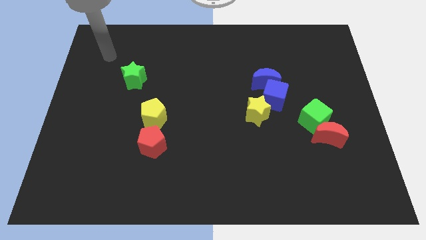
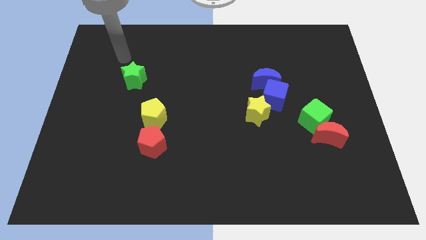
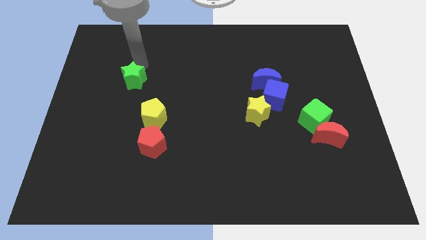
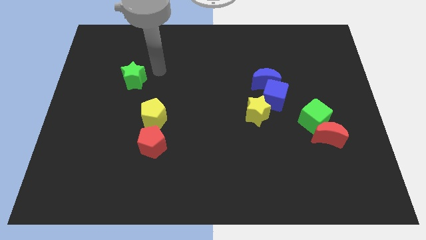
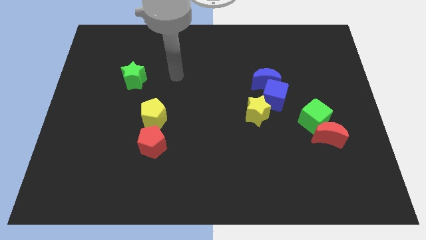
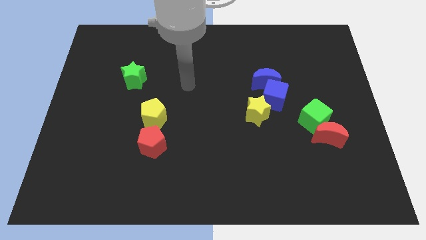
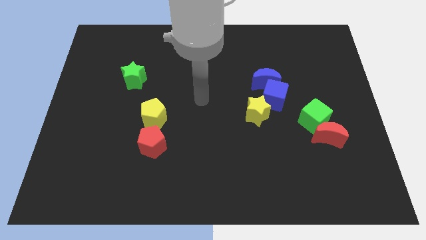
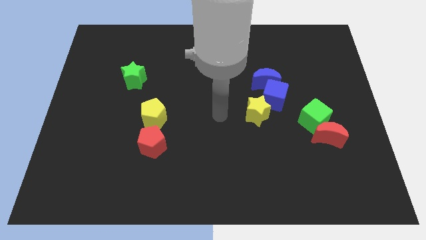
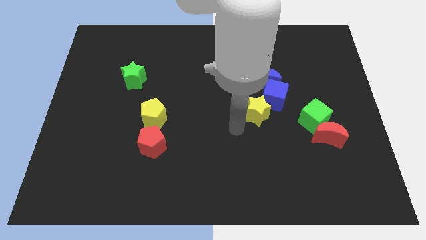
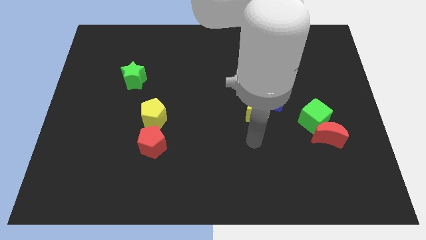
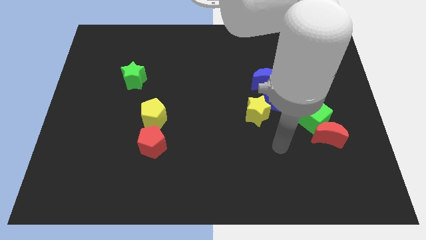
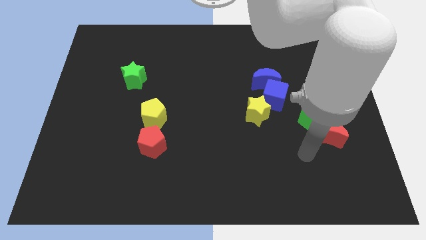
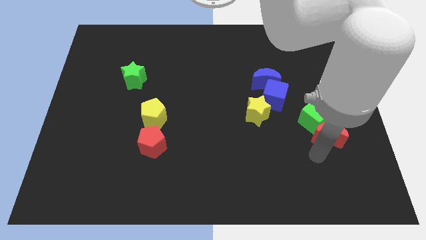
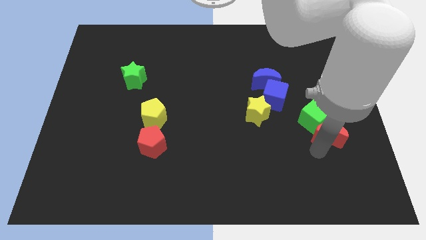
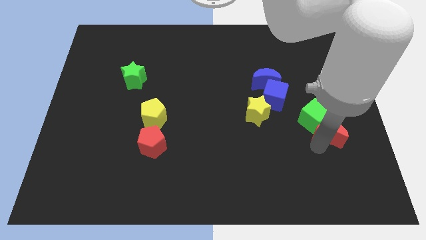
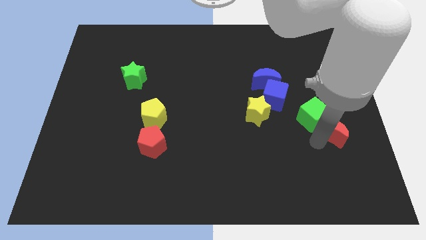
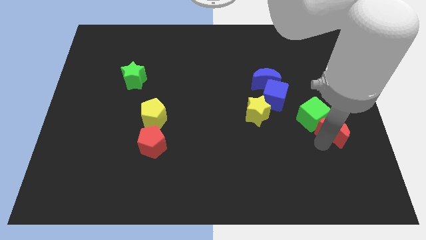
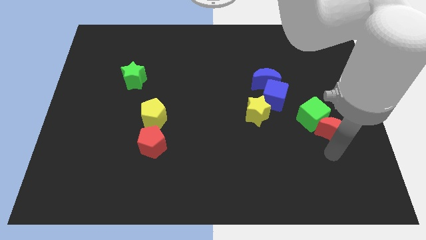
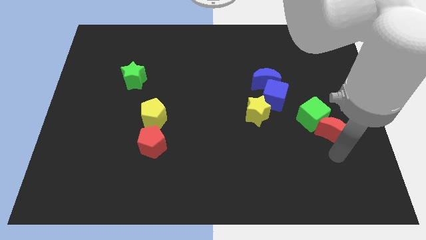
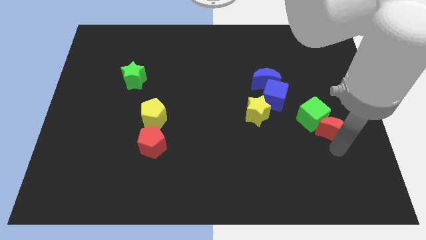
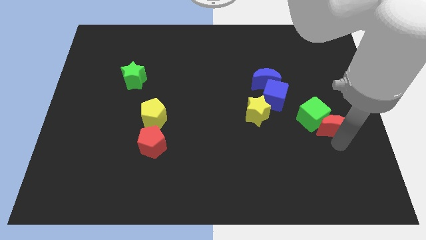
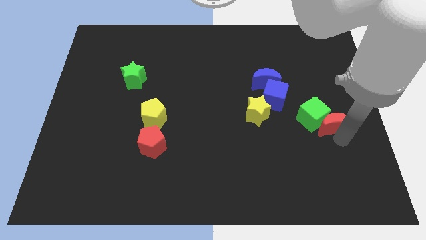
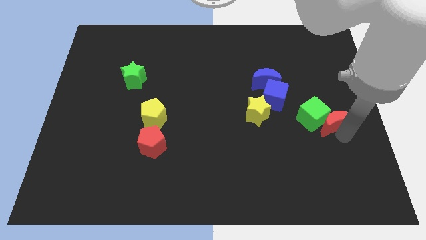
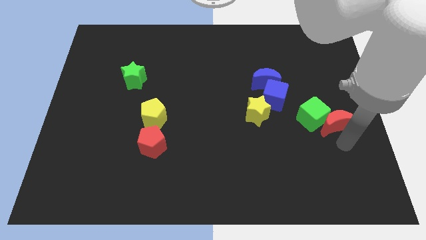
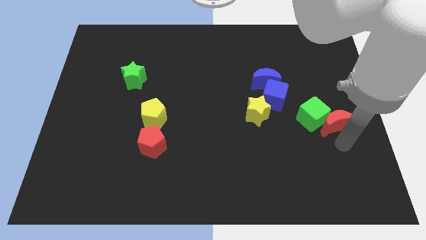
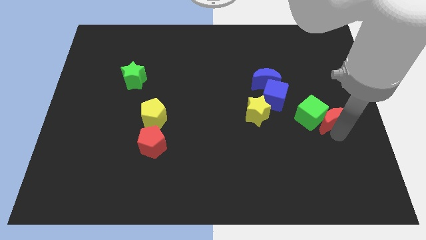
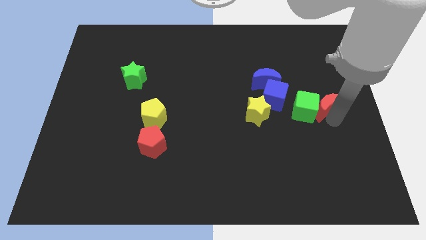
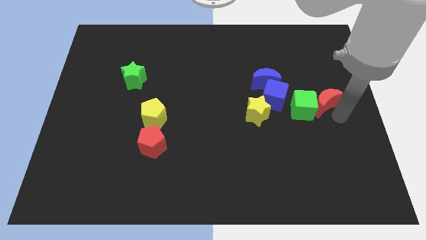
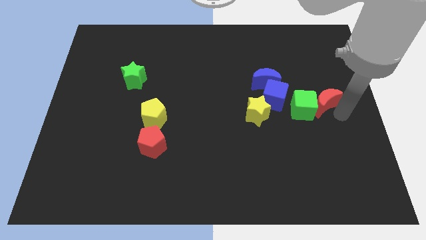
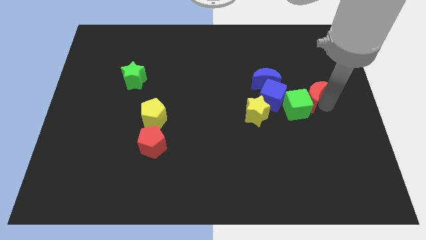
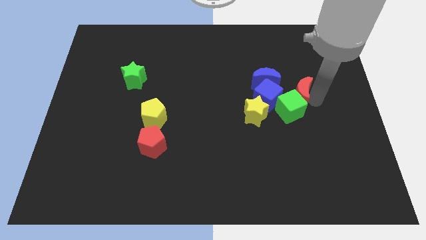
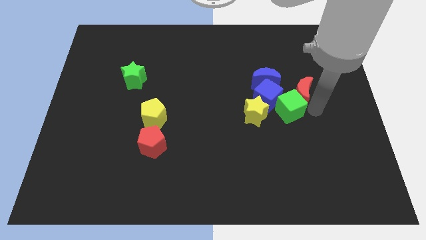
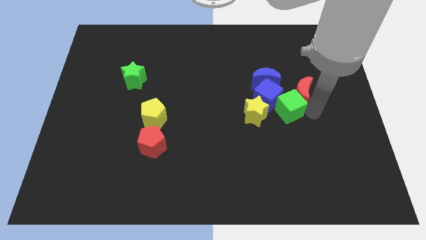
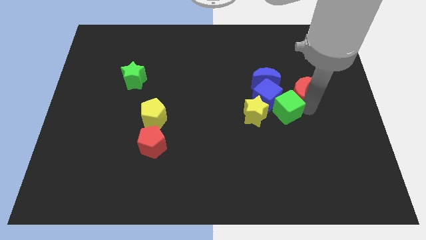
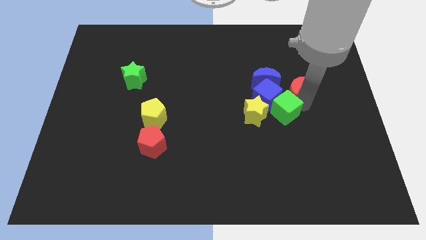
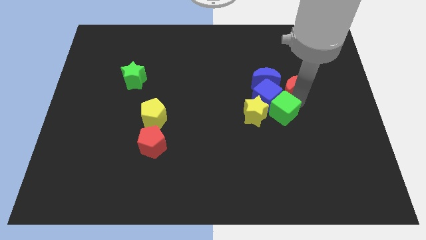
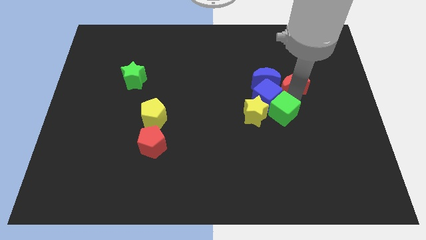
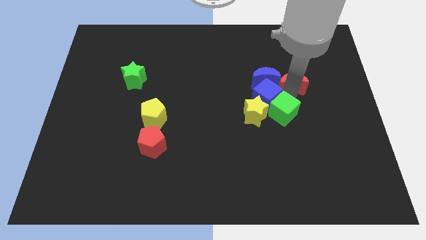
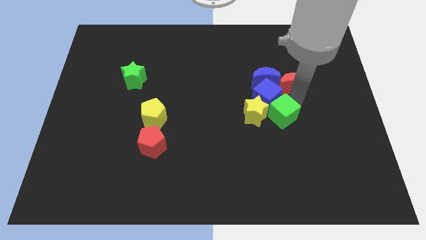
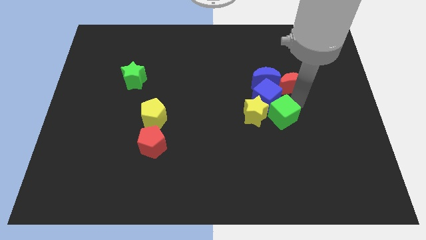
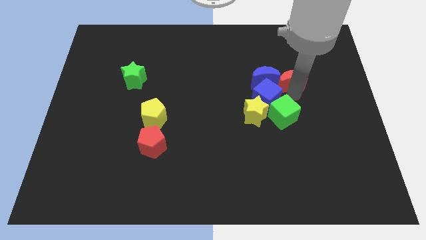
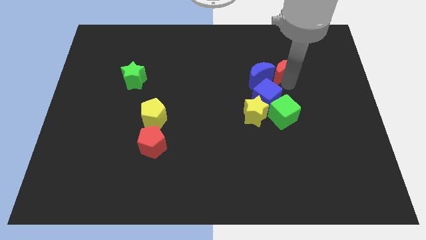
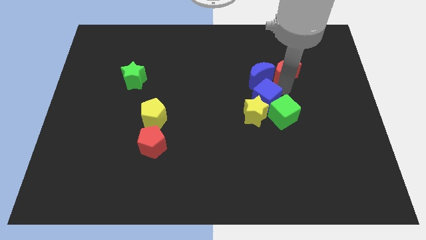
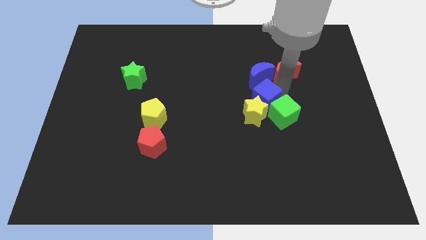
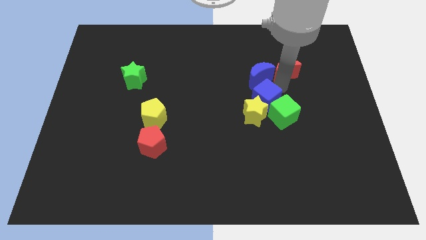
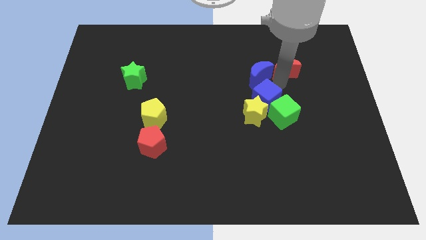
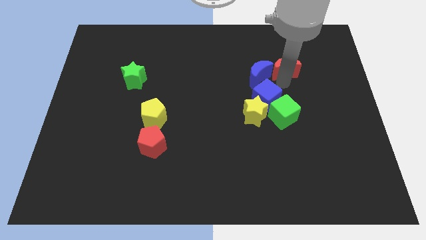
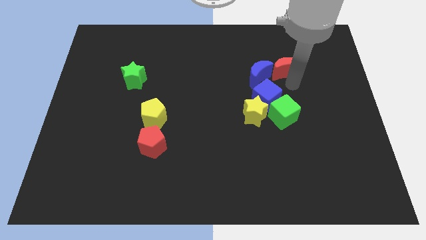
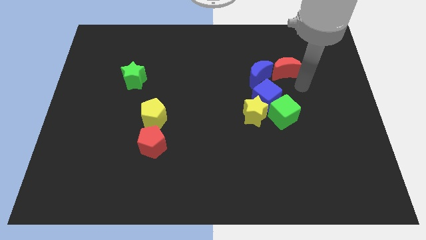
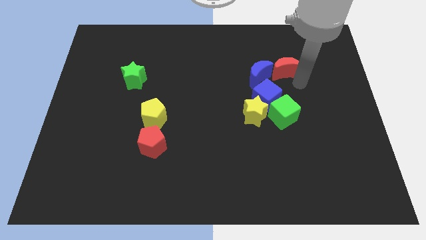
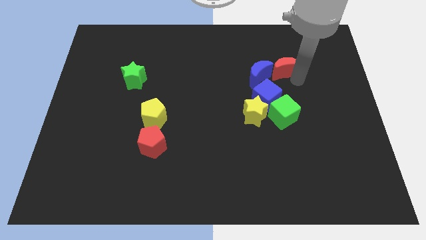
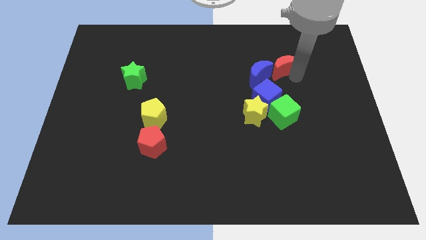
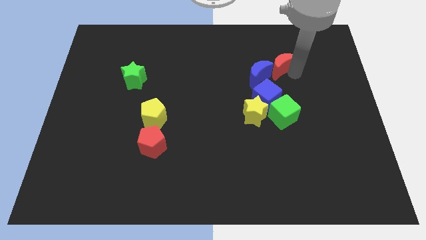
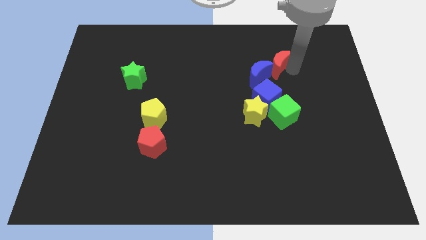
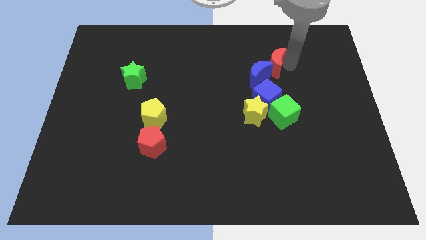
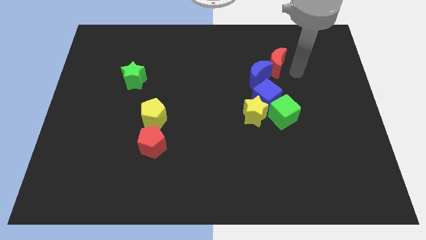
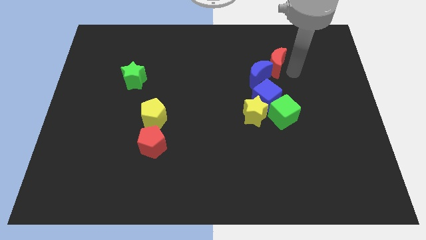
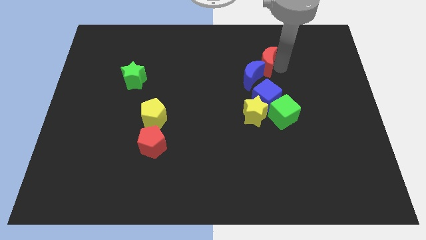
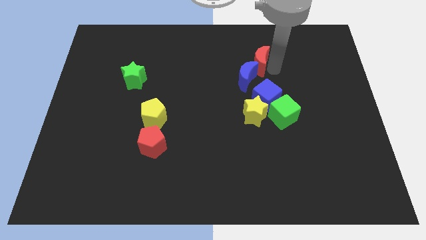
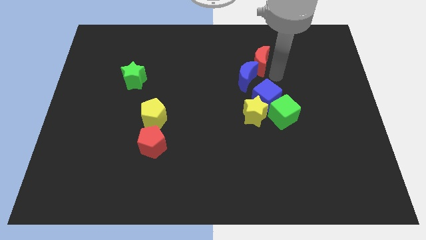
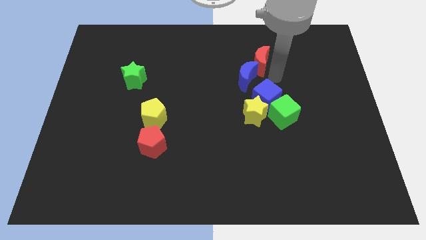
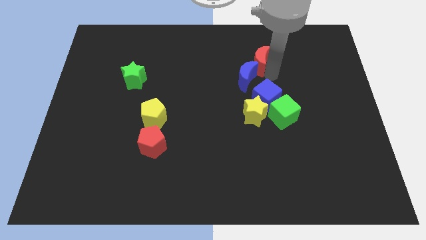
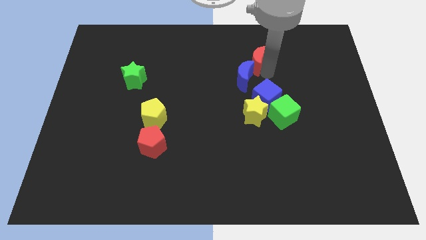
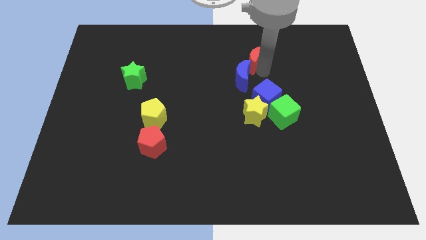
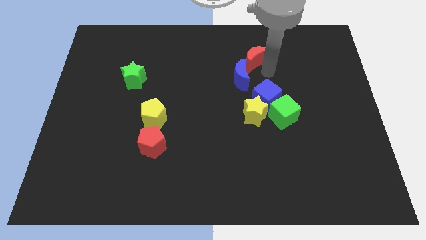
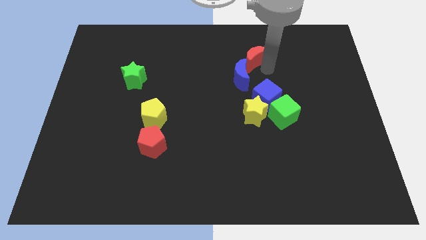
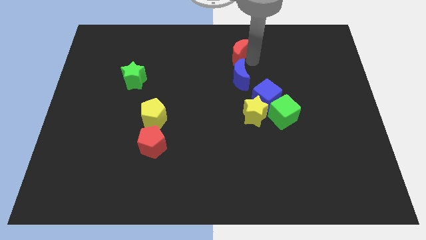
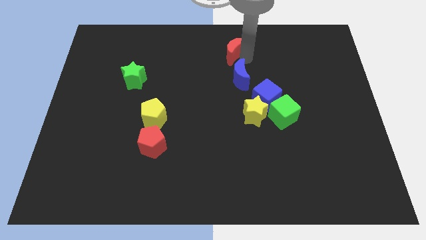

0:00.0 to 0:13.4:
move the red moon to the top side
